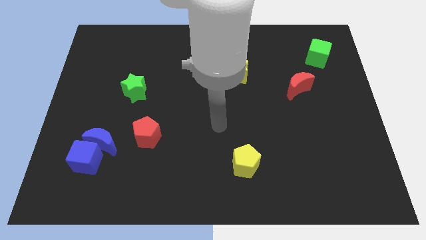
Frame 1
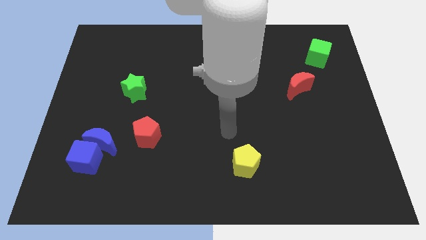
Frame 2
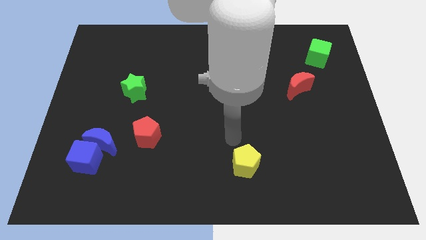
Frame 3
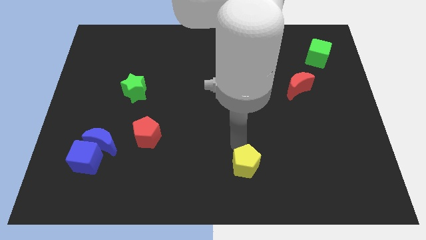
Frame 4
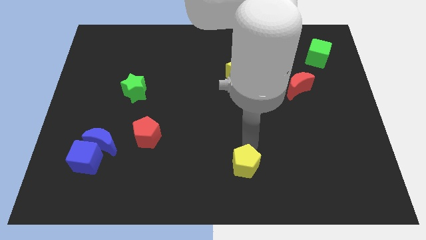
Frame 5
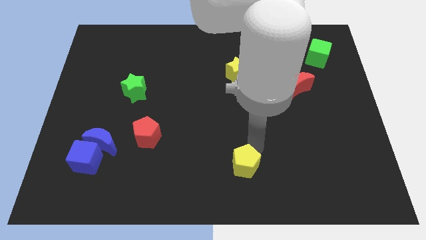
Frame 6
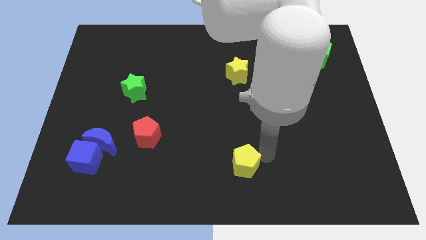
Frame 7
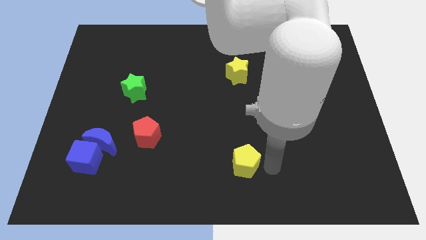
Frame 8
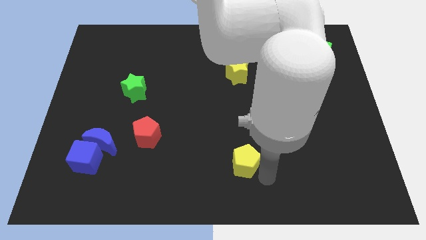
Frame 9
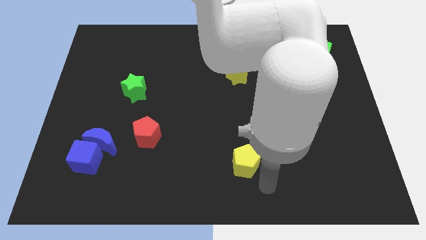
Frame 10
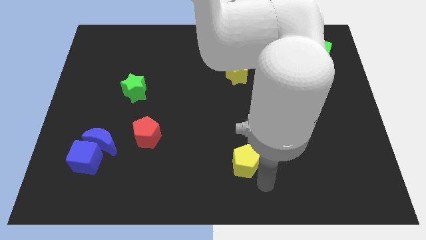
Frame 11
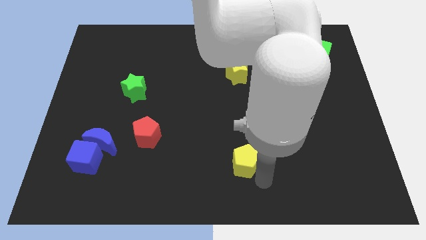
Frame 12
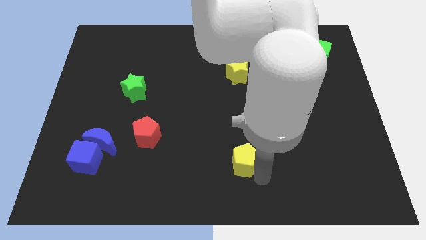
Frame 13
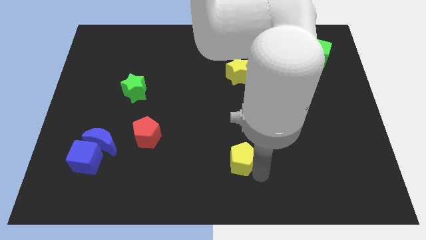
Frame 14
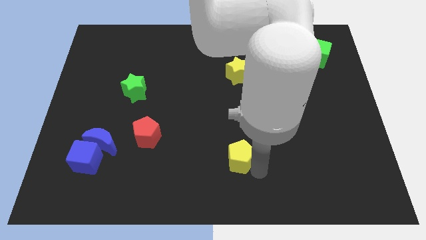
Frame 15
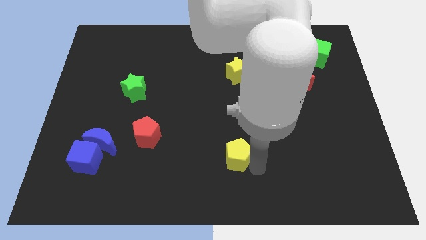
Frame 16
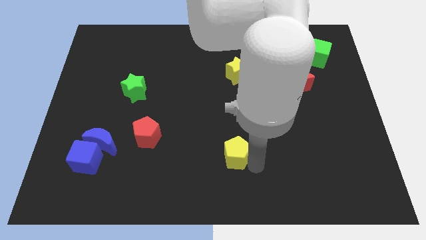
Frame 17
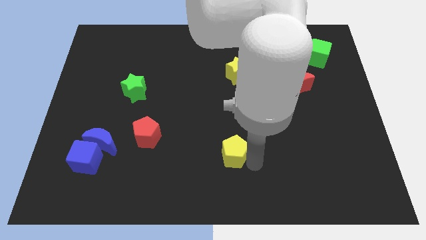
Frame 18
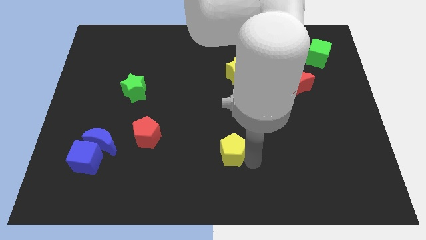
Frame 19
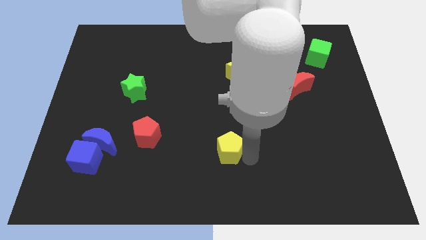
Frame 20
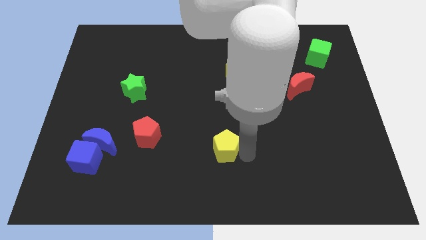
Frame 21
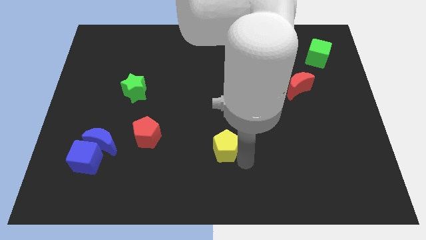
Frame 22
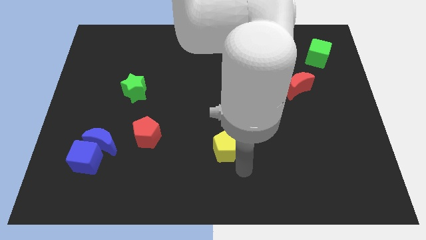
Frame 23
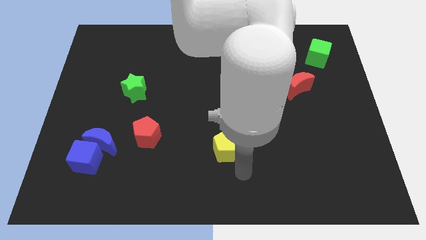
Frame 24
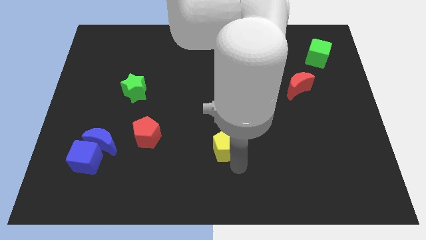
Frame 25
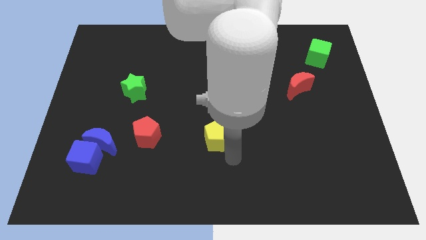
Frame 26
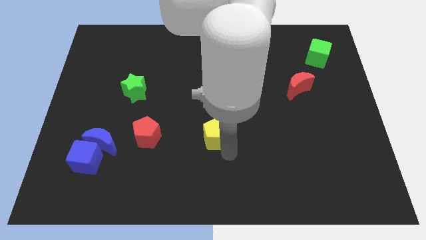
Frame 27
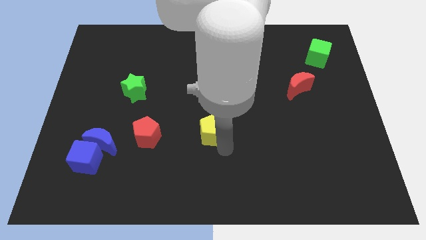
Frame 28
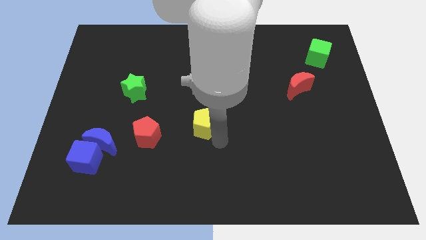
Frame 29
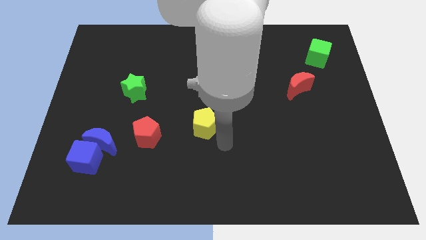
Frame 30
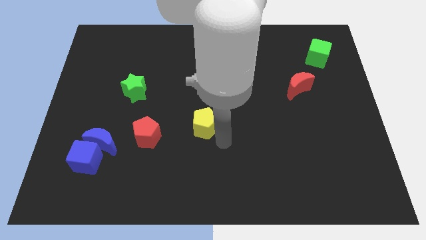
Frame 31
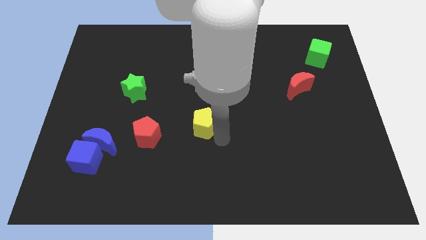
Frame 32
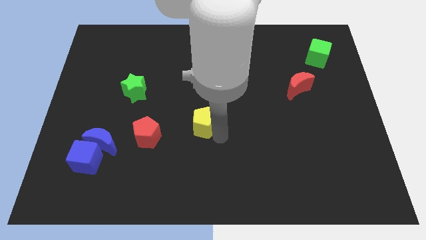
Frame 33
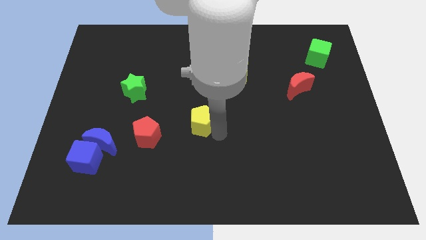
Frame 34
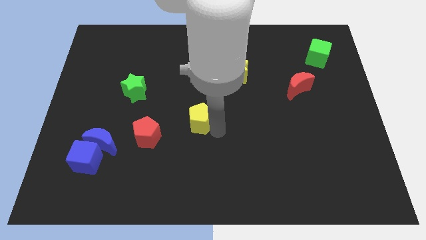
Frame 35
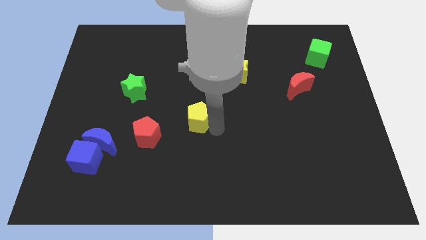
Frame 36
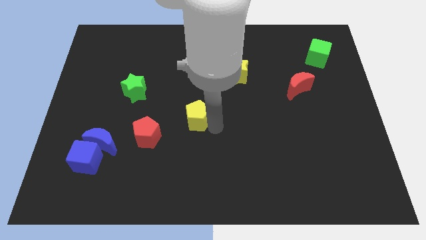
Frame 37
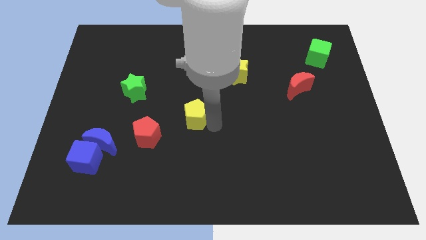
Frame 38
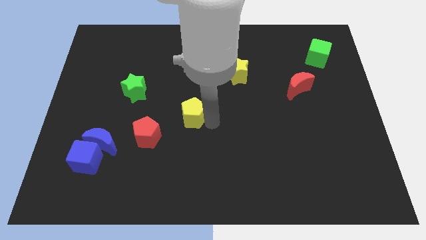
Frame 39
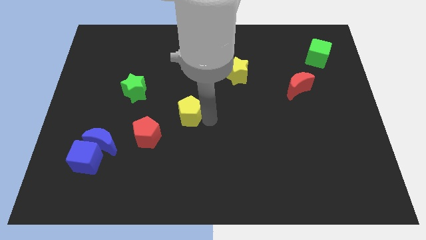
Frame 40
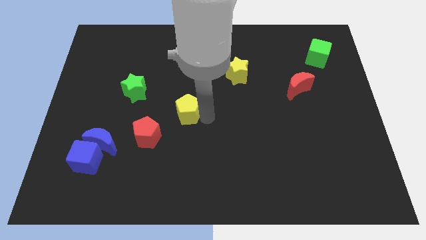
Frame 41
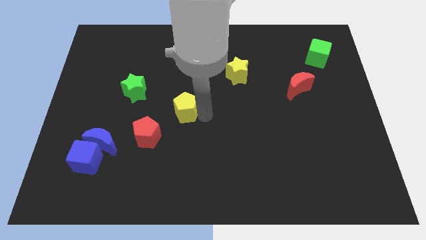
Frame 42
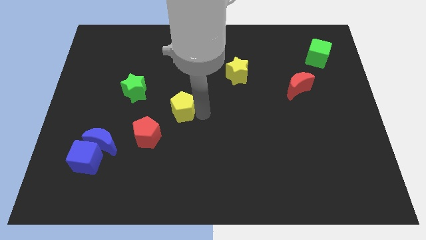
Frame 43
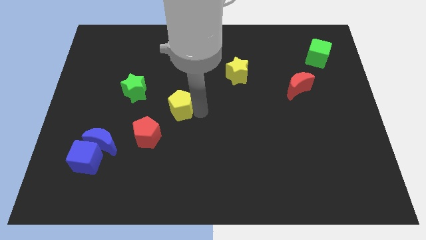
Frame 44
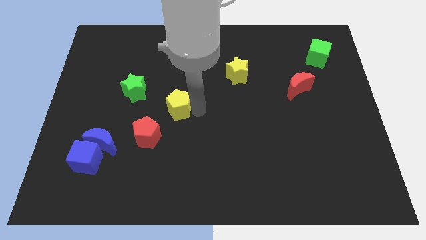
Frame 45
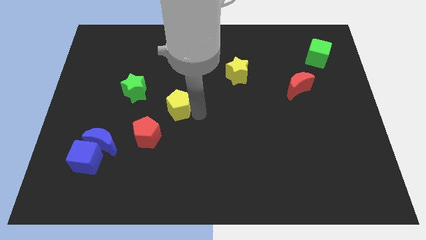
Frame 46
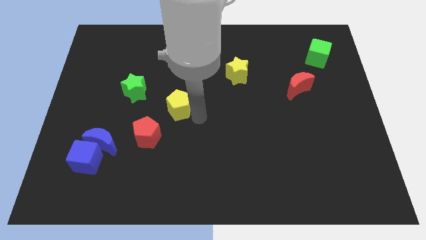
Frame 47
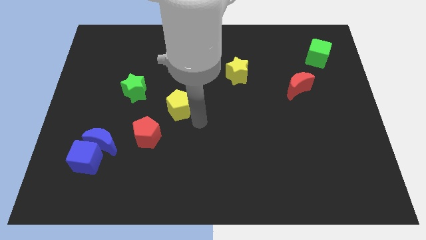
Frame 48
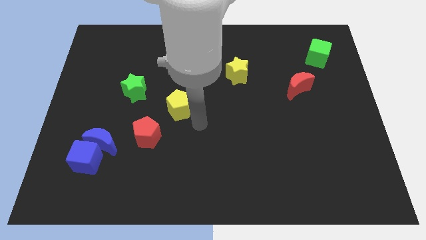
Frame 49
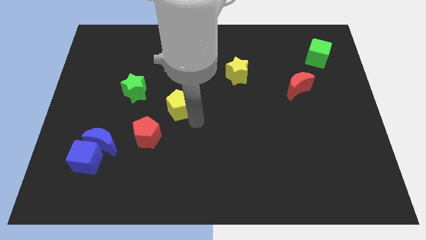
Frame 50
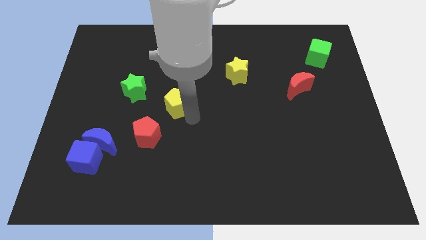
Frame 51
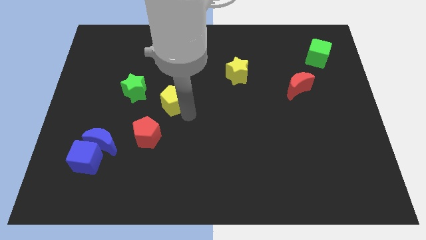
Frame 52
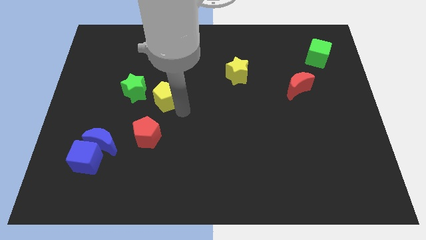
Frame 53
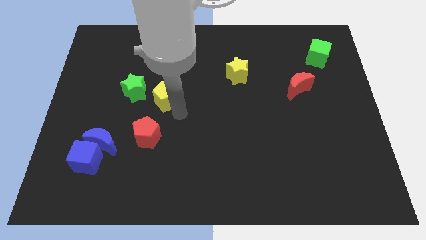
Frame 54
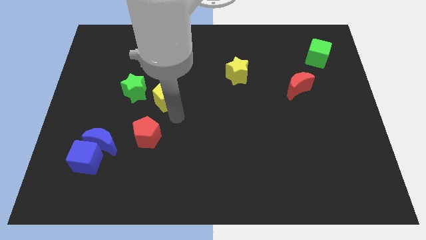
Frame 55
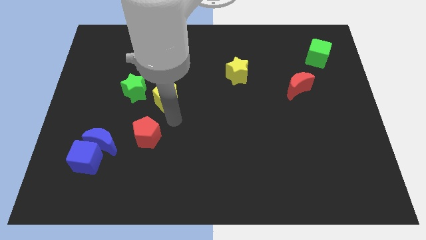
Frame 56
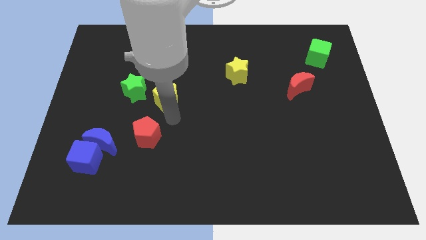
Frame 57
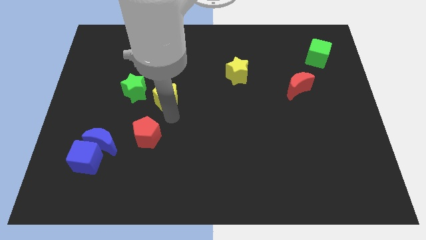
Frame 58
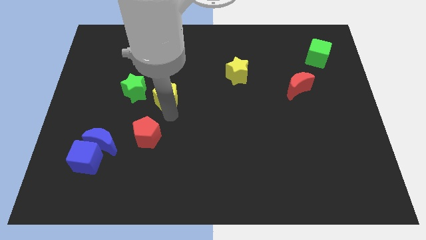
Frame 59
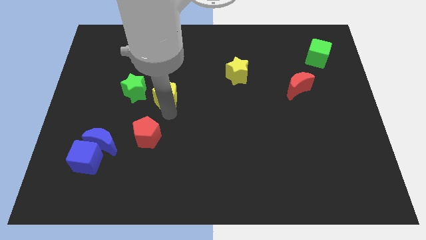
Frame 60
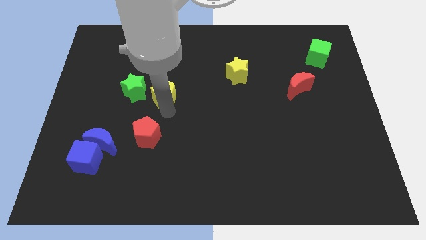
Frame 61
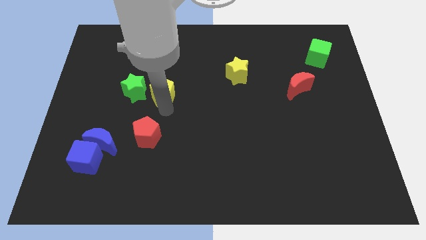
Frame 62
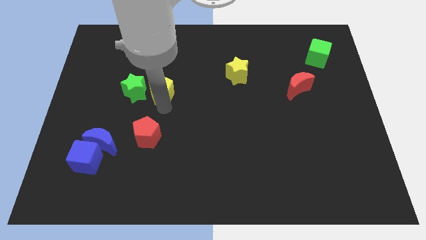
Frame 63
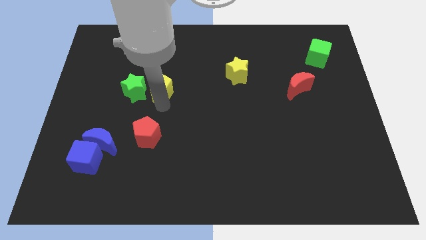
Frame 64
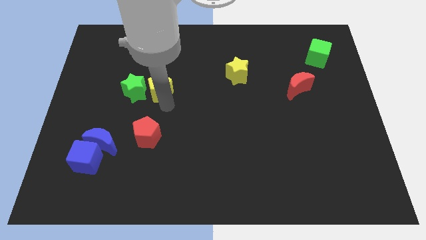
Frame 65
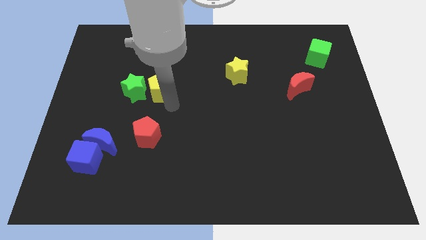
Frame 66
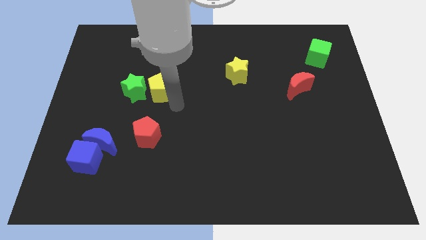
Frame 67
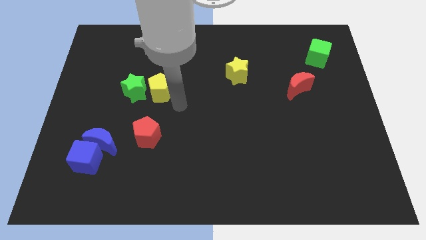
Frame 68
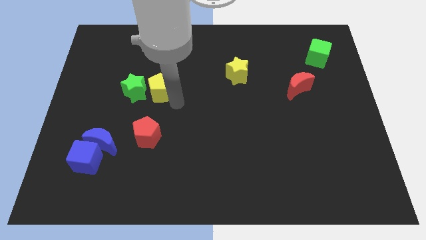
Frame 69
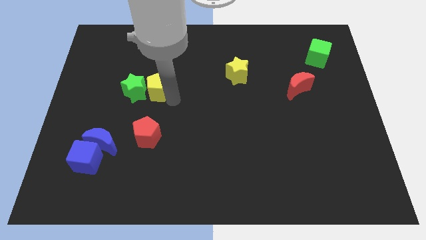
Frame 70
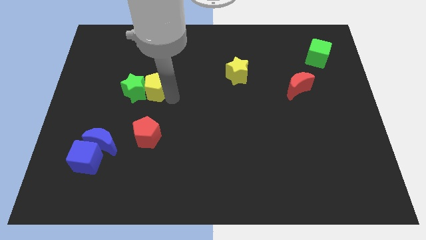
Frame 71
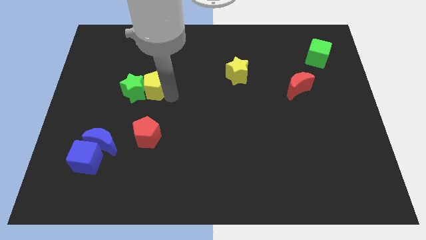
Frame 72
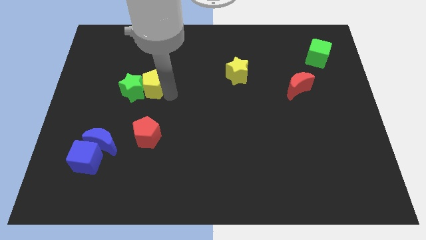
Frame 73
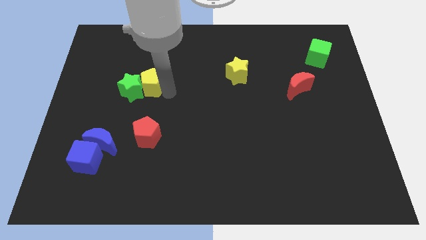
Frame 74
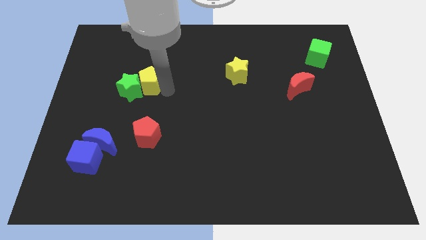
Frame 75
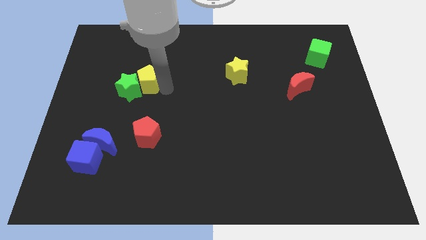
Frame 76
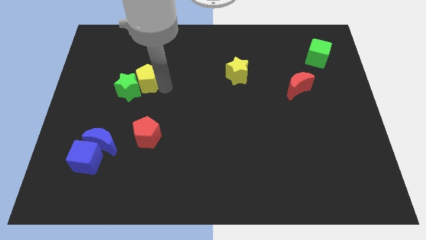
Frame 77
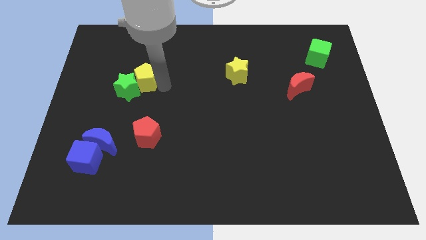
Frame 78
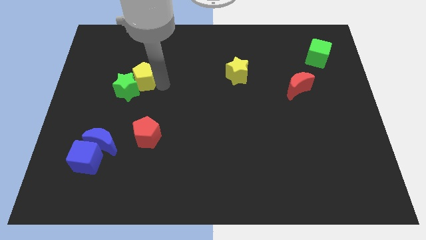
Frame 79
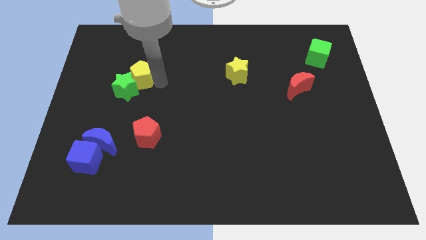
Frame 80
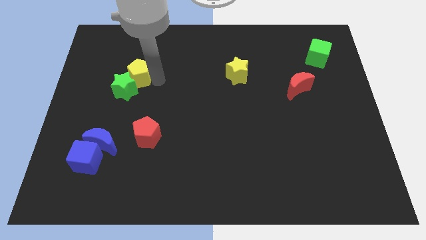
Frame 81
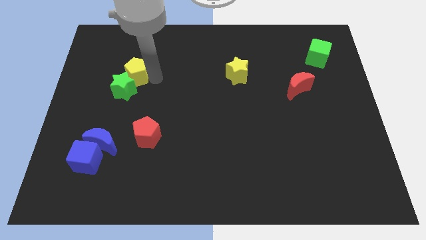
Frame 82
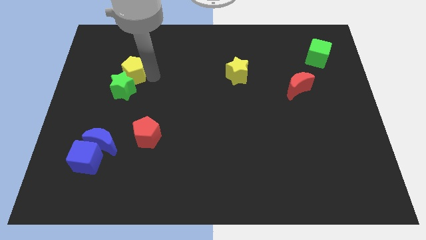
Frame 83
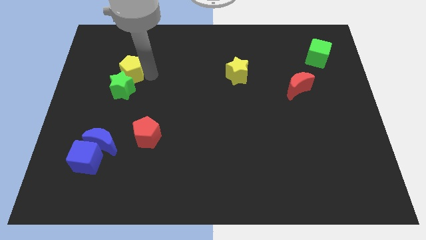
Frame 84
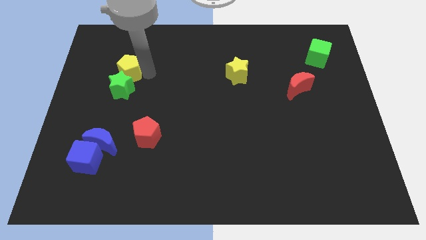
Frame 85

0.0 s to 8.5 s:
push the yellow pentagon to the top left side of the green star
